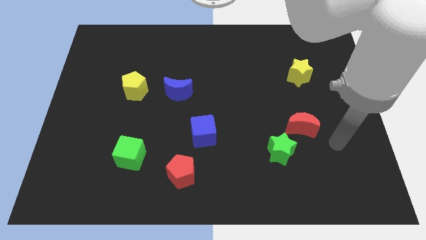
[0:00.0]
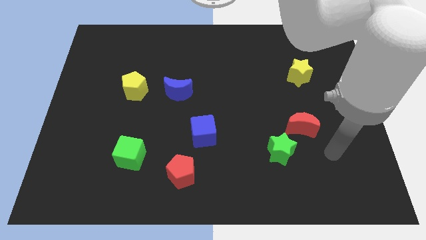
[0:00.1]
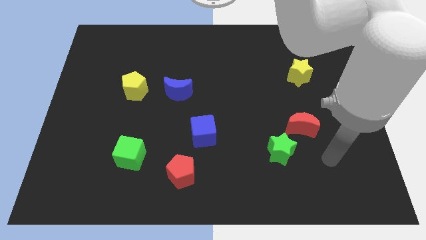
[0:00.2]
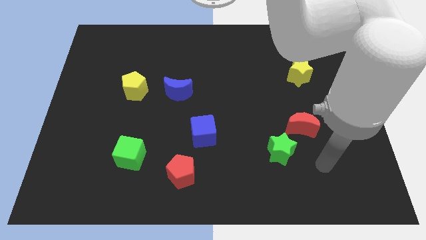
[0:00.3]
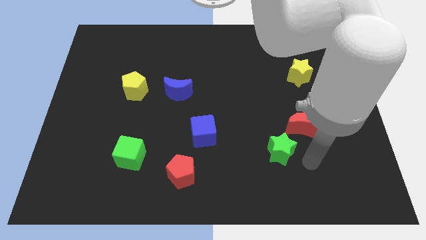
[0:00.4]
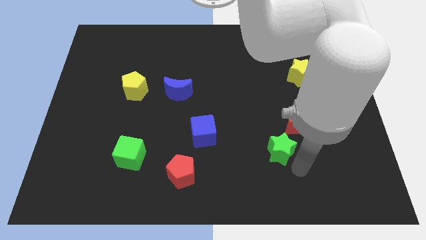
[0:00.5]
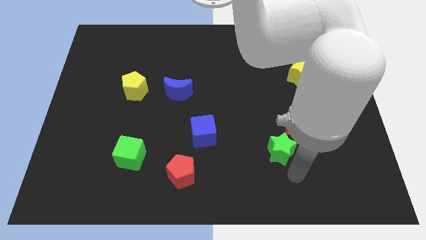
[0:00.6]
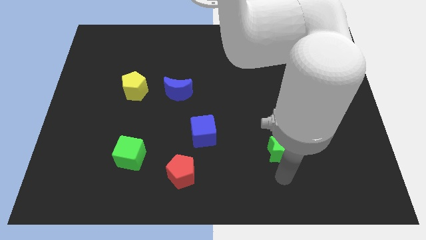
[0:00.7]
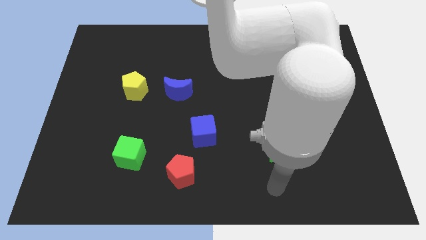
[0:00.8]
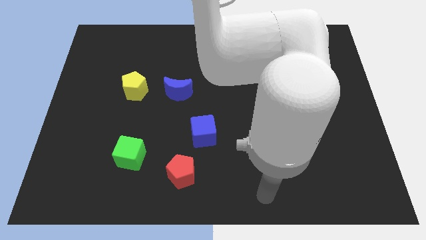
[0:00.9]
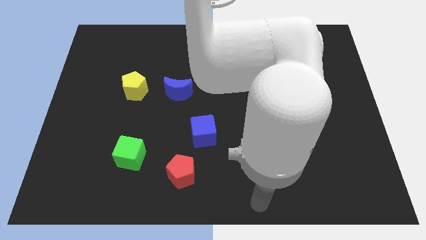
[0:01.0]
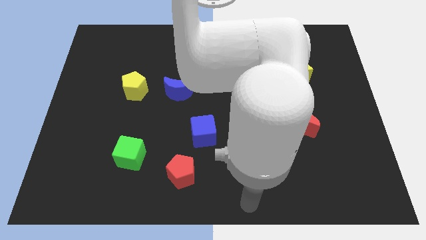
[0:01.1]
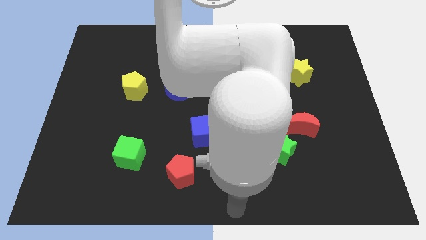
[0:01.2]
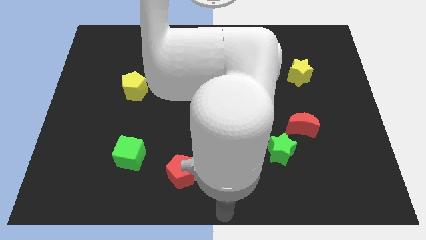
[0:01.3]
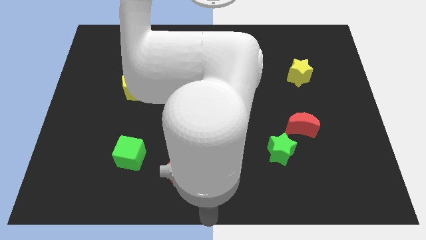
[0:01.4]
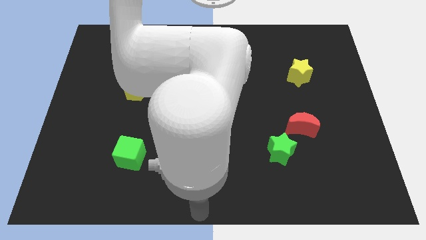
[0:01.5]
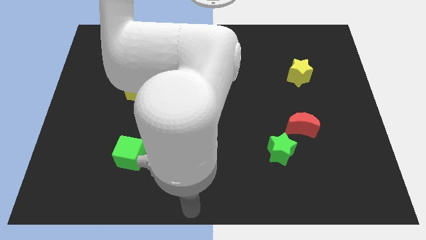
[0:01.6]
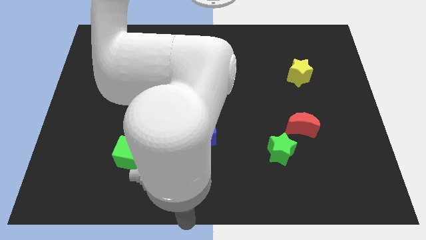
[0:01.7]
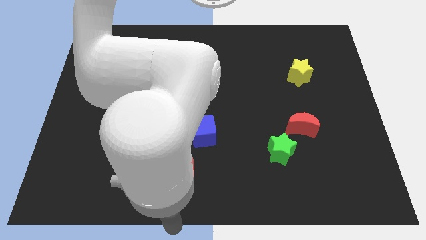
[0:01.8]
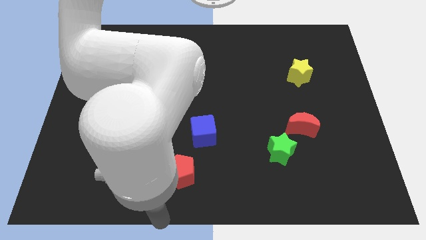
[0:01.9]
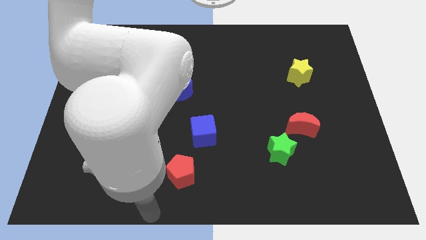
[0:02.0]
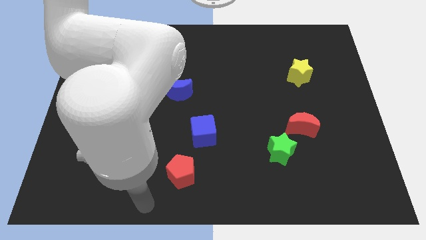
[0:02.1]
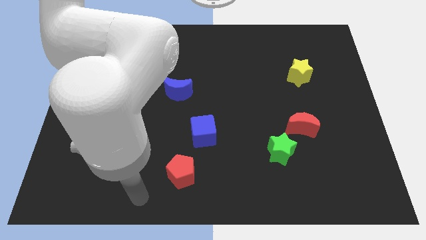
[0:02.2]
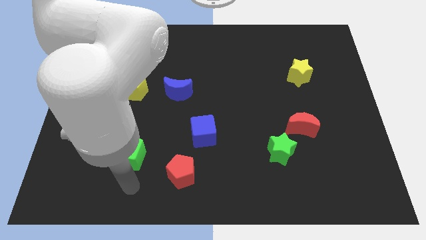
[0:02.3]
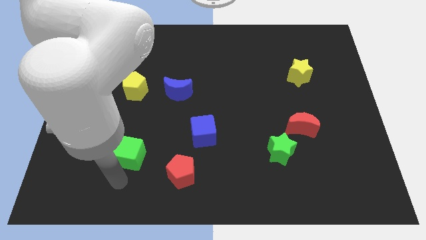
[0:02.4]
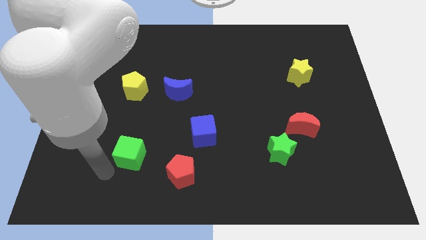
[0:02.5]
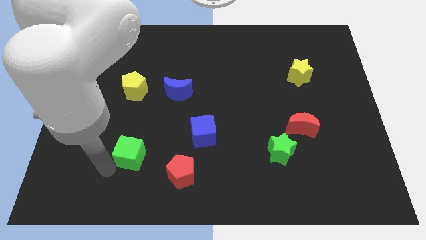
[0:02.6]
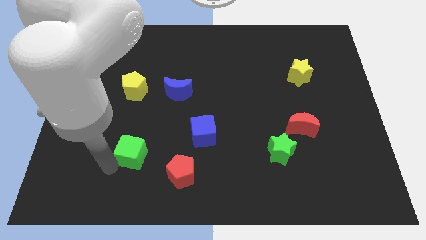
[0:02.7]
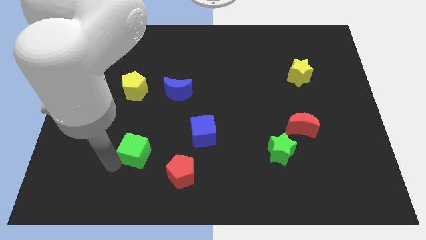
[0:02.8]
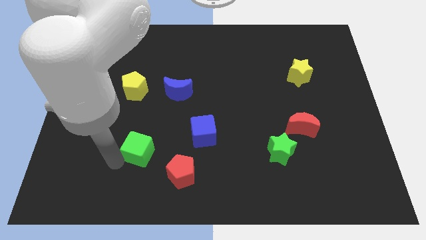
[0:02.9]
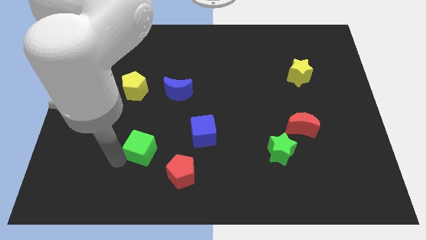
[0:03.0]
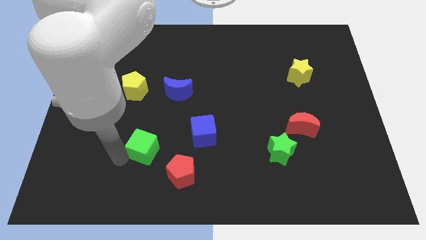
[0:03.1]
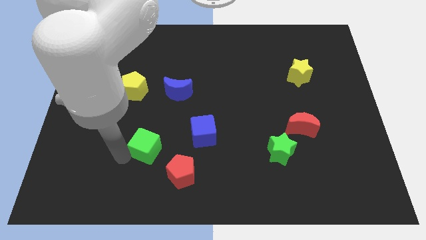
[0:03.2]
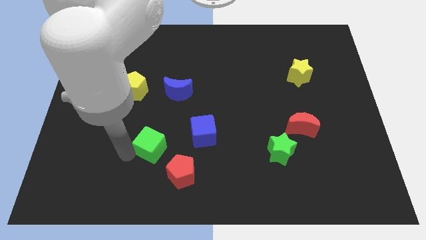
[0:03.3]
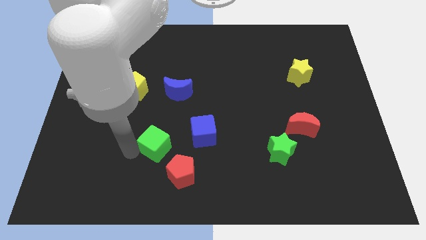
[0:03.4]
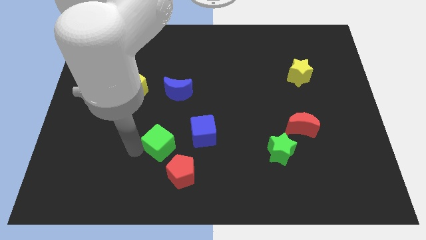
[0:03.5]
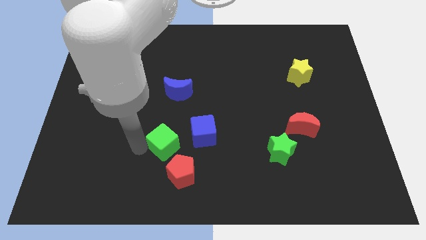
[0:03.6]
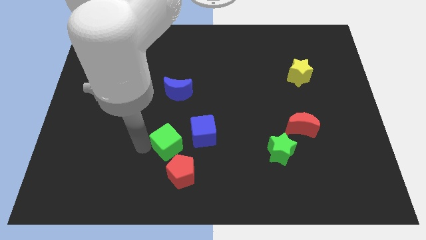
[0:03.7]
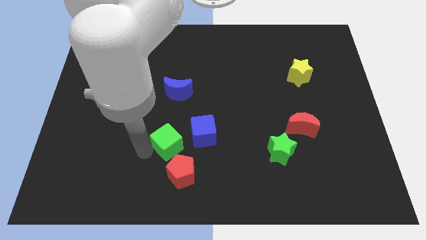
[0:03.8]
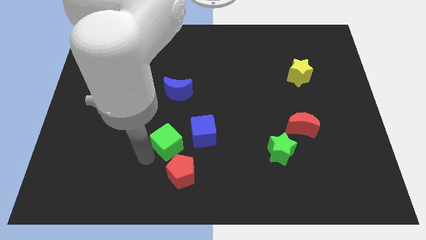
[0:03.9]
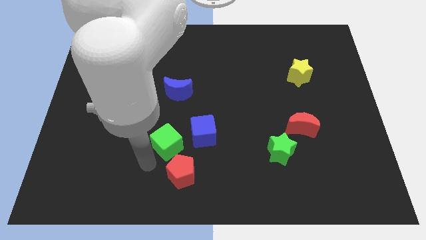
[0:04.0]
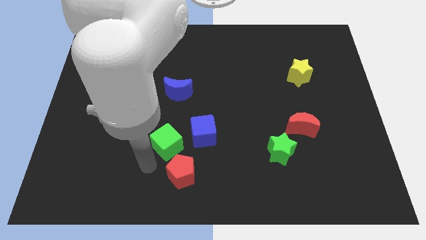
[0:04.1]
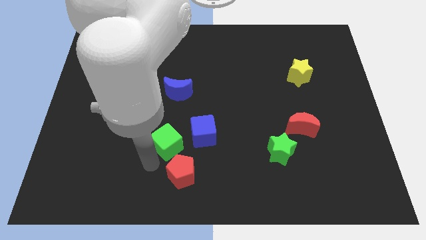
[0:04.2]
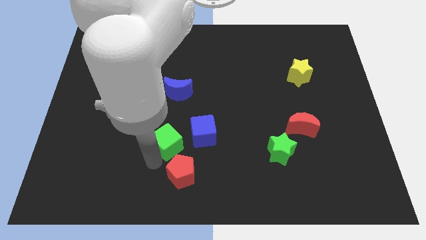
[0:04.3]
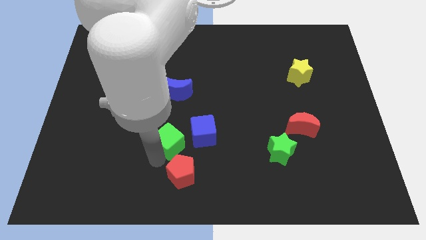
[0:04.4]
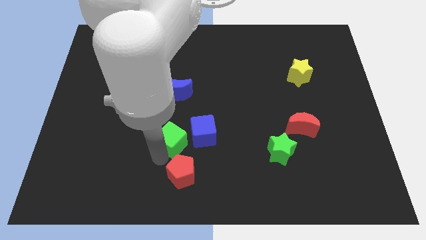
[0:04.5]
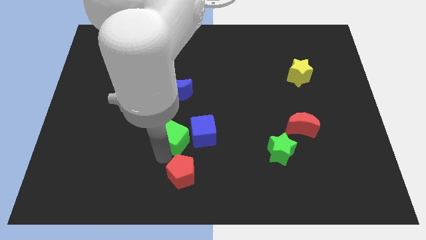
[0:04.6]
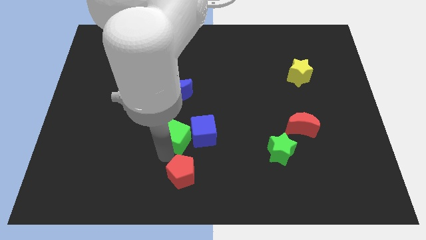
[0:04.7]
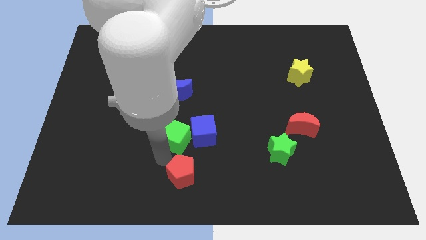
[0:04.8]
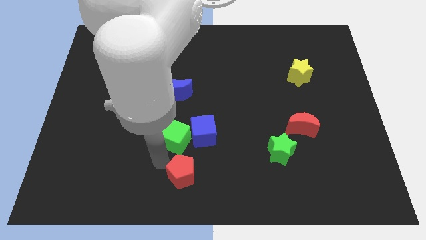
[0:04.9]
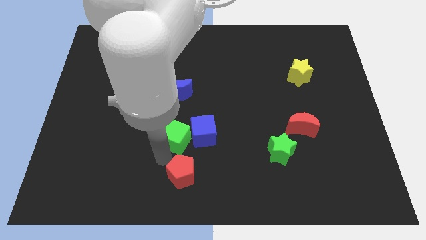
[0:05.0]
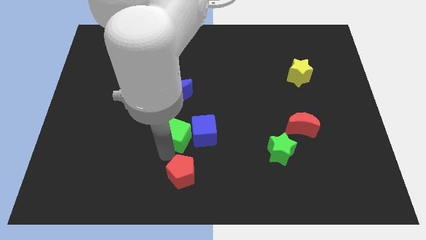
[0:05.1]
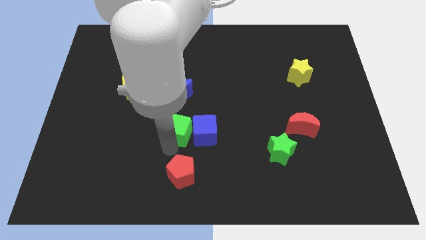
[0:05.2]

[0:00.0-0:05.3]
slide the green cube to the middle
